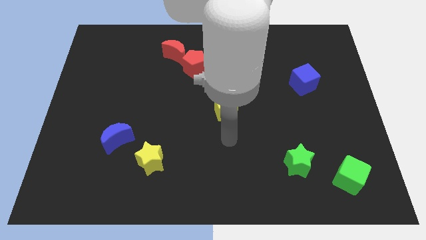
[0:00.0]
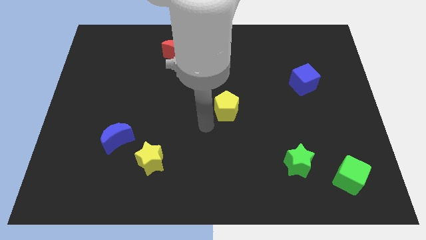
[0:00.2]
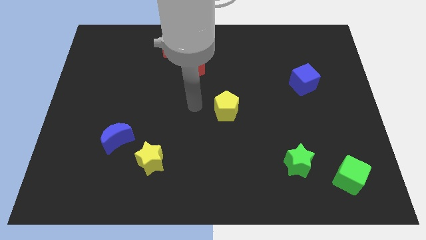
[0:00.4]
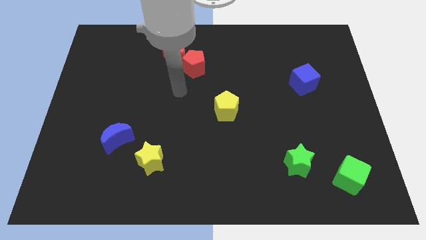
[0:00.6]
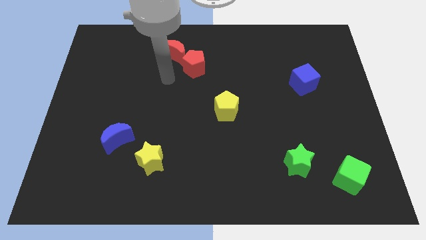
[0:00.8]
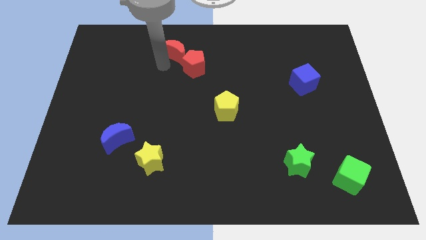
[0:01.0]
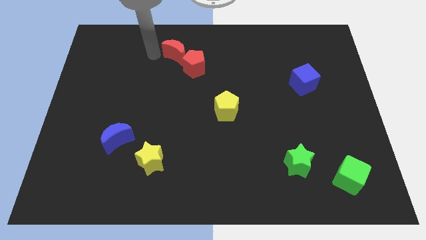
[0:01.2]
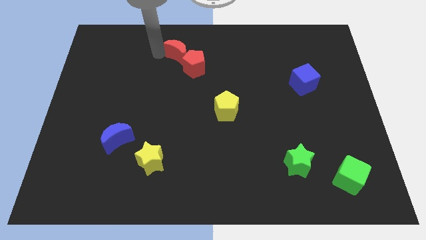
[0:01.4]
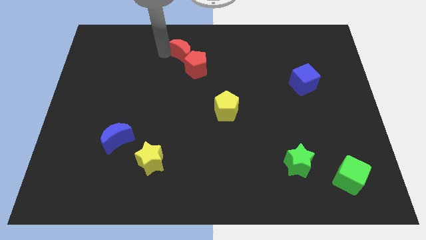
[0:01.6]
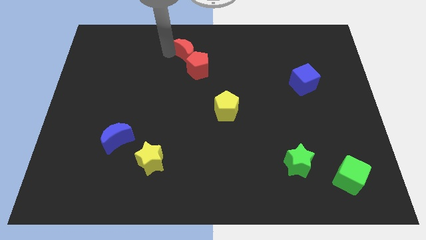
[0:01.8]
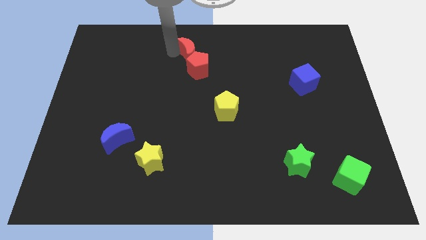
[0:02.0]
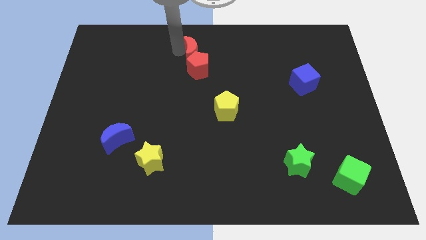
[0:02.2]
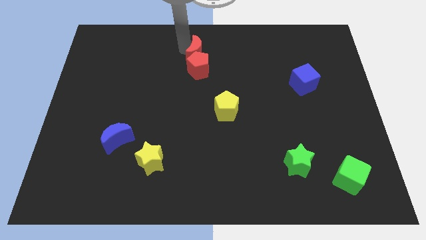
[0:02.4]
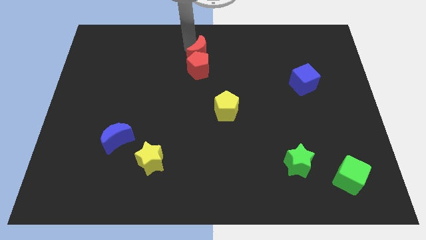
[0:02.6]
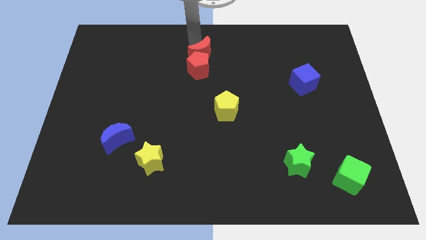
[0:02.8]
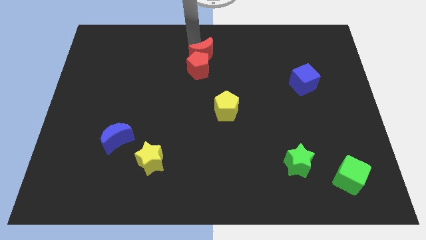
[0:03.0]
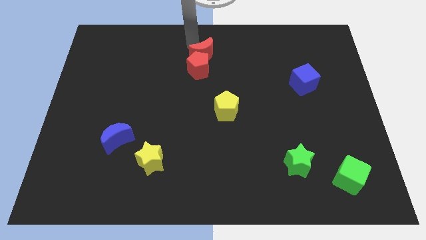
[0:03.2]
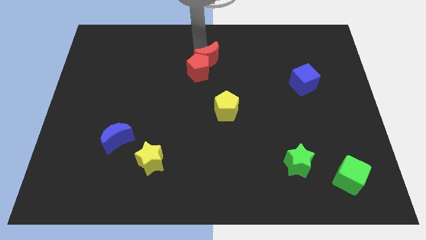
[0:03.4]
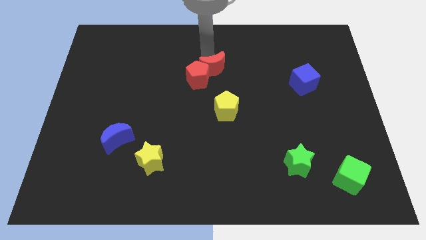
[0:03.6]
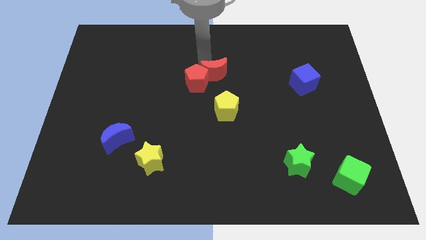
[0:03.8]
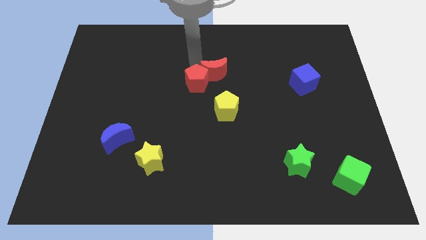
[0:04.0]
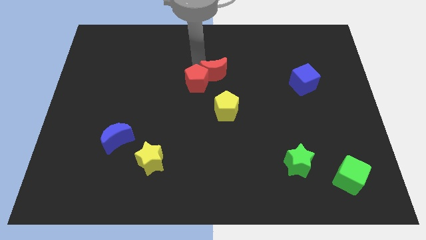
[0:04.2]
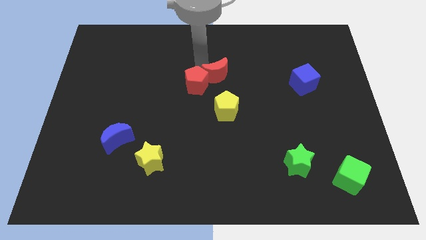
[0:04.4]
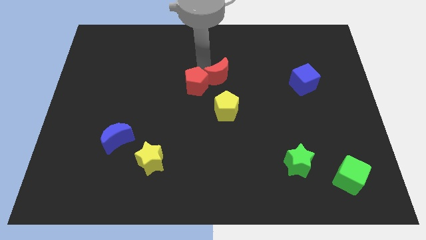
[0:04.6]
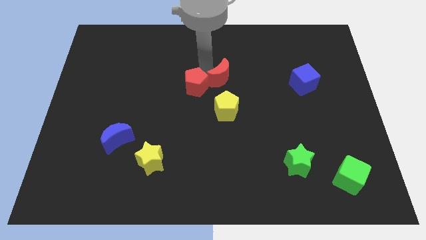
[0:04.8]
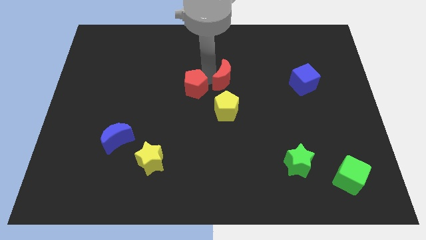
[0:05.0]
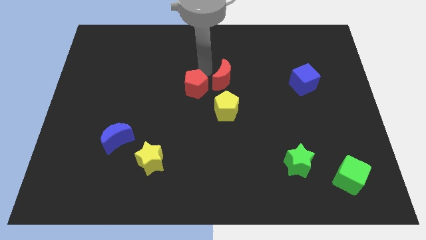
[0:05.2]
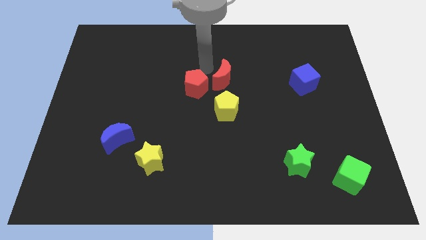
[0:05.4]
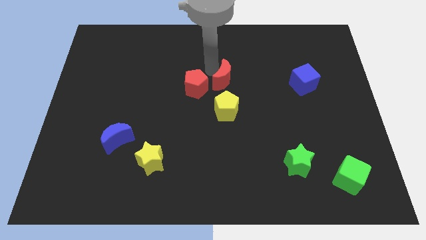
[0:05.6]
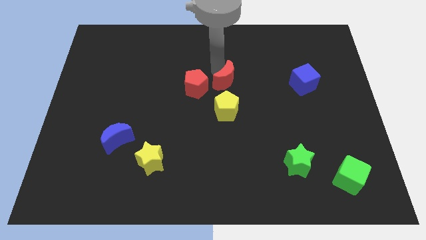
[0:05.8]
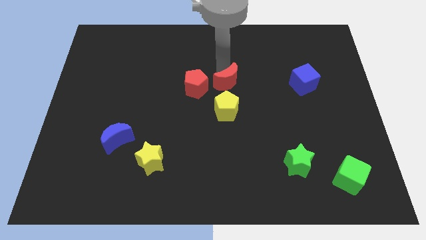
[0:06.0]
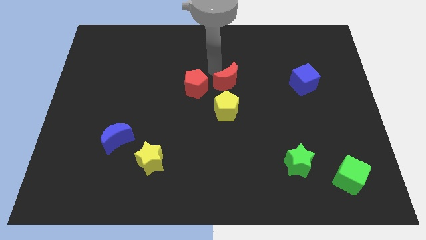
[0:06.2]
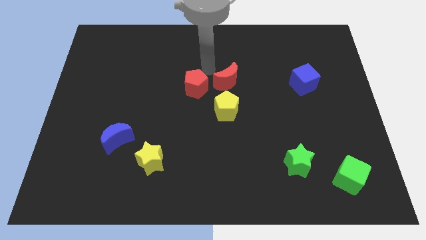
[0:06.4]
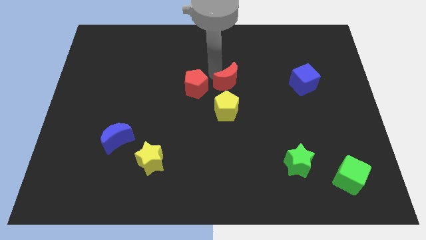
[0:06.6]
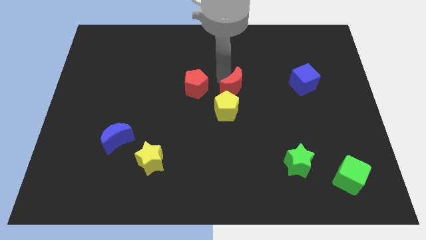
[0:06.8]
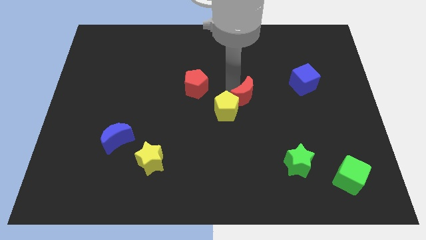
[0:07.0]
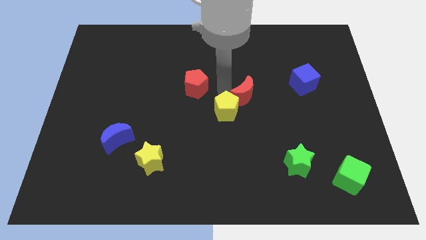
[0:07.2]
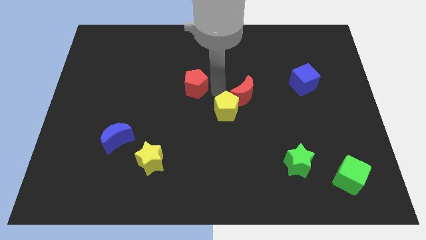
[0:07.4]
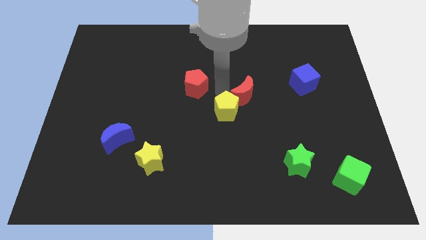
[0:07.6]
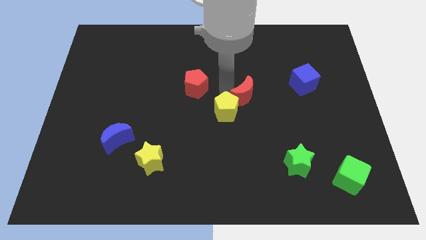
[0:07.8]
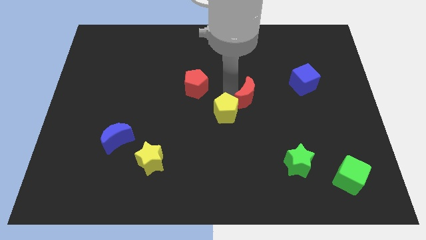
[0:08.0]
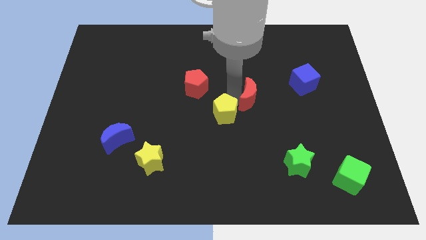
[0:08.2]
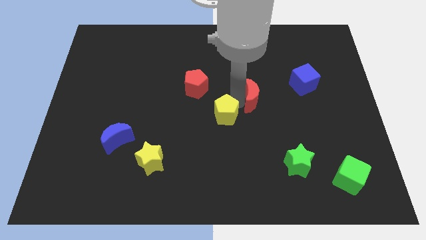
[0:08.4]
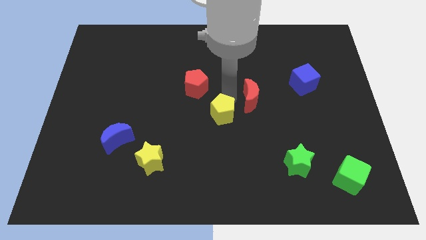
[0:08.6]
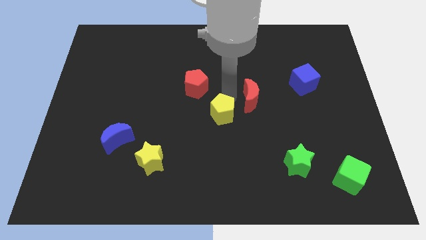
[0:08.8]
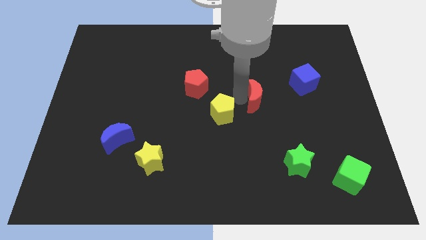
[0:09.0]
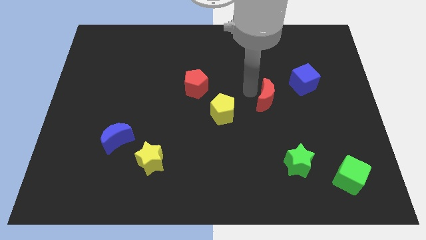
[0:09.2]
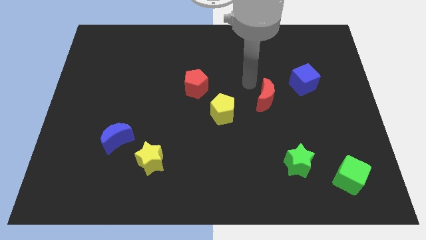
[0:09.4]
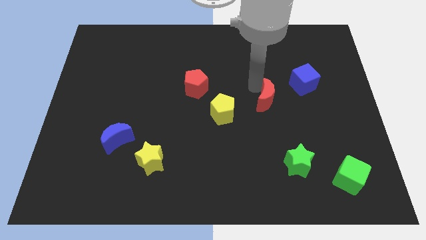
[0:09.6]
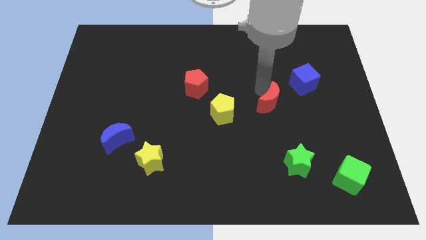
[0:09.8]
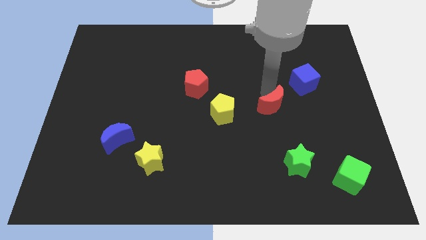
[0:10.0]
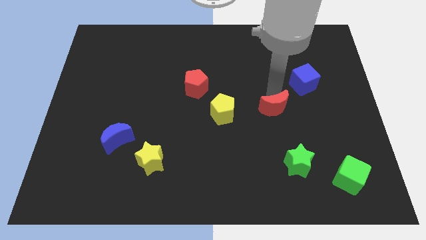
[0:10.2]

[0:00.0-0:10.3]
move the red moon above the green star

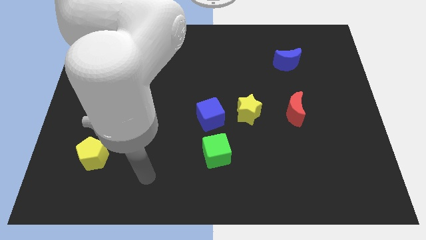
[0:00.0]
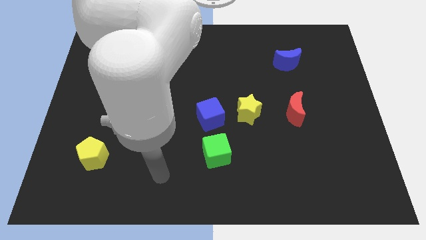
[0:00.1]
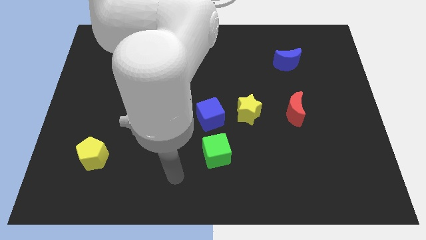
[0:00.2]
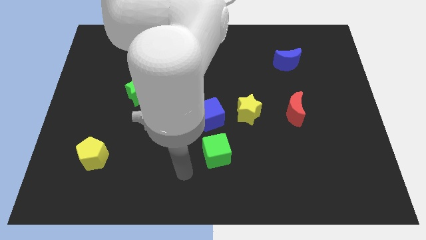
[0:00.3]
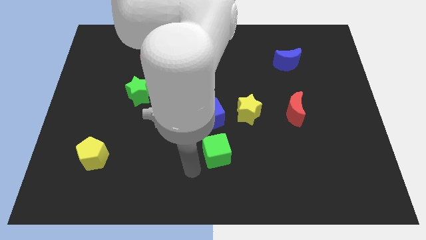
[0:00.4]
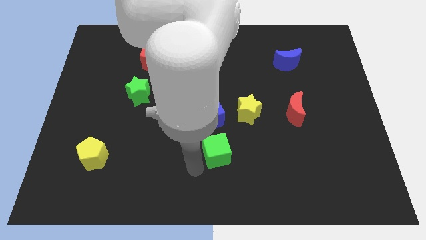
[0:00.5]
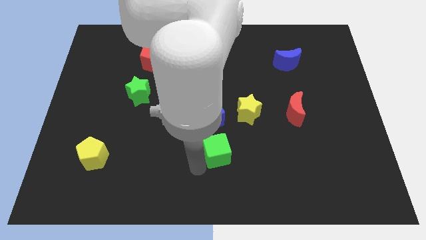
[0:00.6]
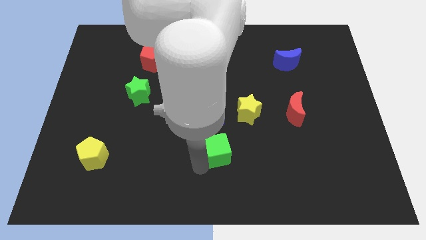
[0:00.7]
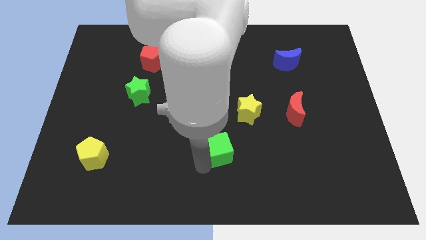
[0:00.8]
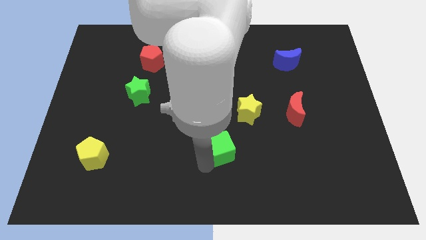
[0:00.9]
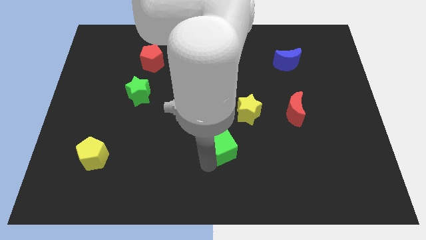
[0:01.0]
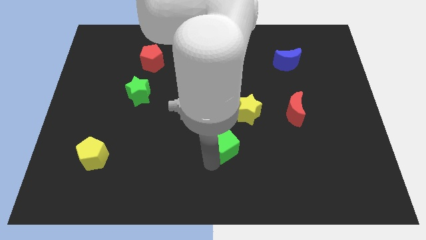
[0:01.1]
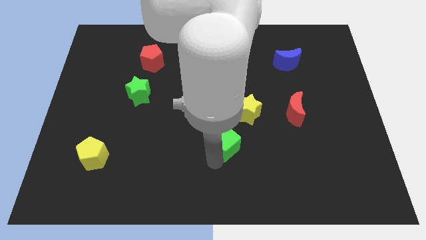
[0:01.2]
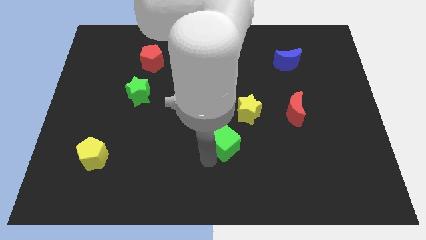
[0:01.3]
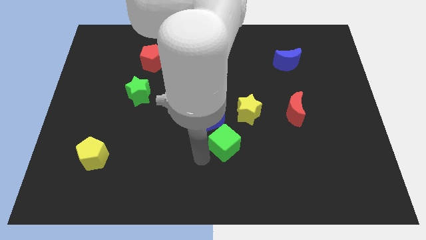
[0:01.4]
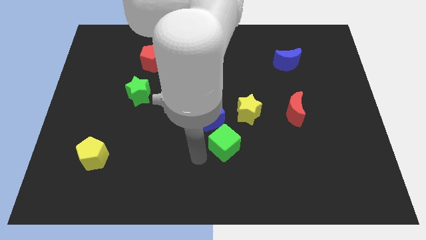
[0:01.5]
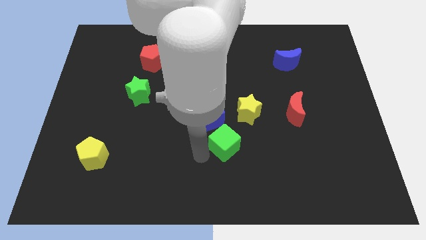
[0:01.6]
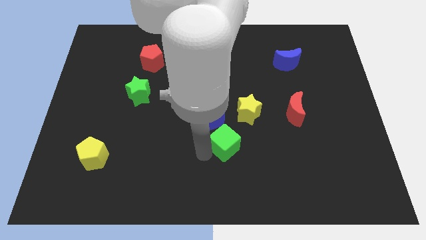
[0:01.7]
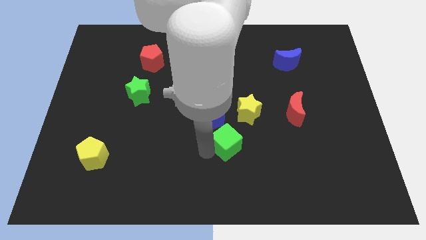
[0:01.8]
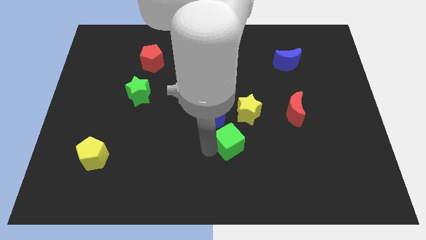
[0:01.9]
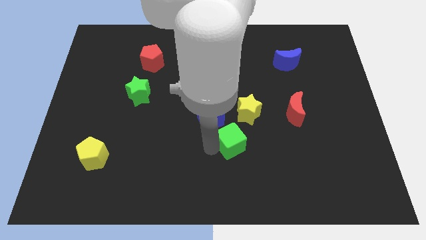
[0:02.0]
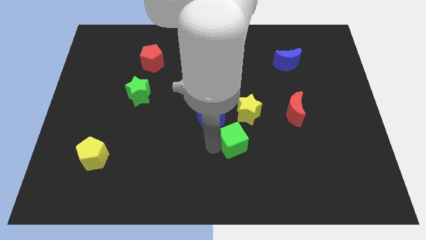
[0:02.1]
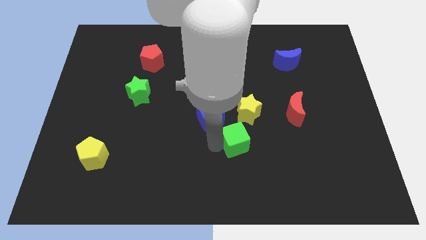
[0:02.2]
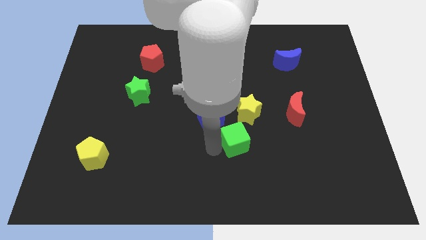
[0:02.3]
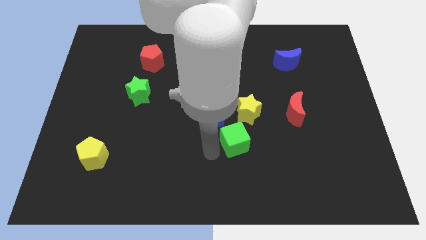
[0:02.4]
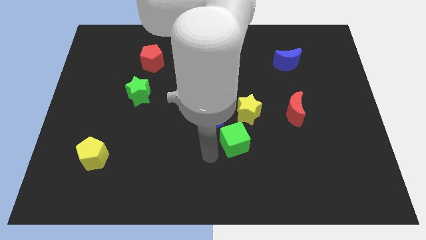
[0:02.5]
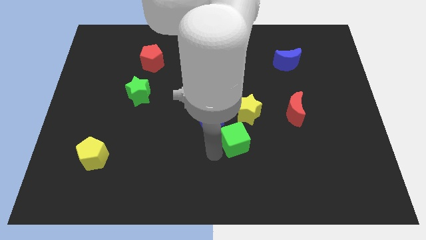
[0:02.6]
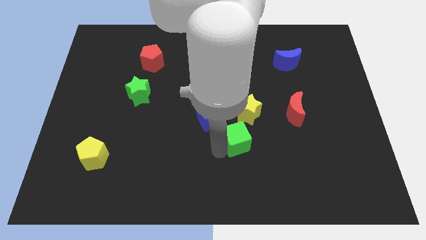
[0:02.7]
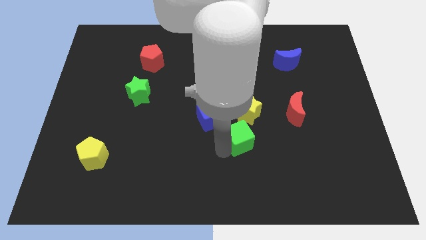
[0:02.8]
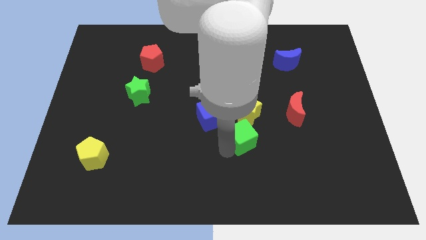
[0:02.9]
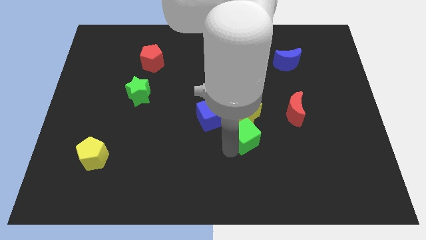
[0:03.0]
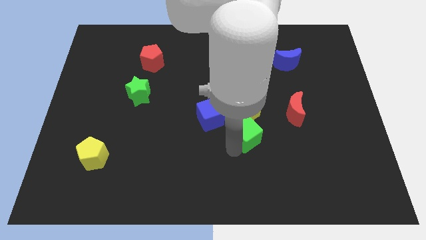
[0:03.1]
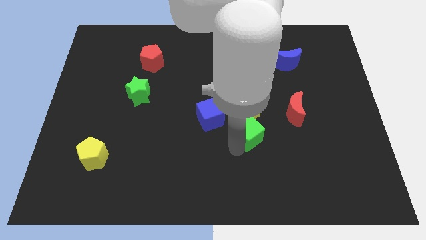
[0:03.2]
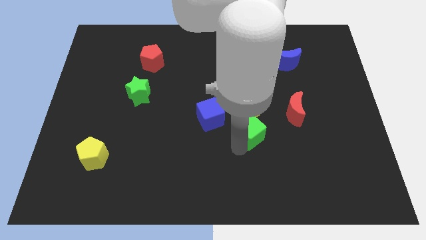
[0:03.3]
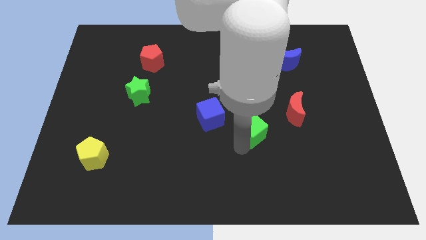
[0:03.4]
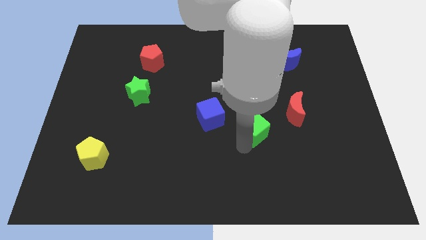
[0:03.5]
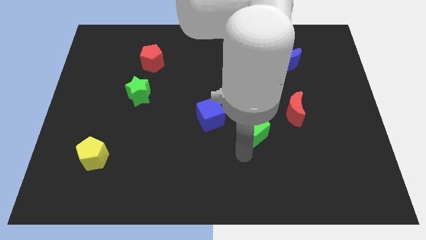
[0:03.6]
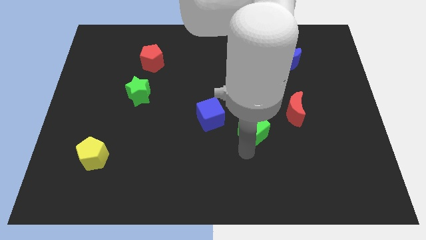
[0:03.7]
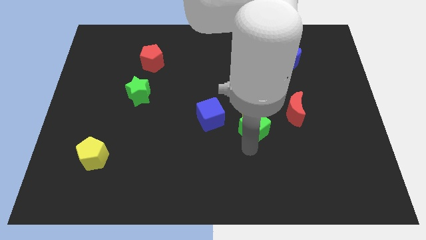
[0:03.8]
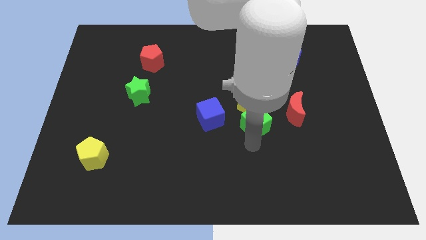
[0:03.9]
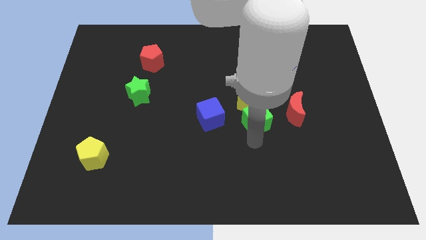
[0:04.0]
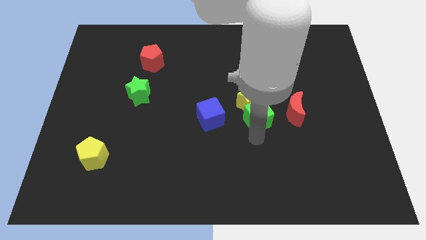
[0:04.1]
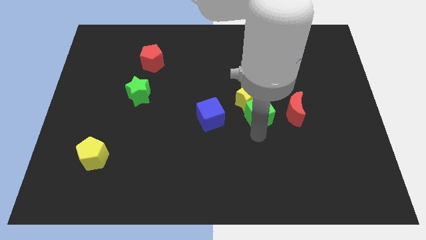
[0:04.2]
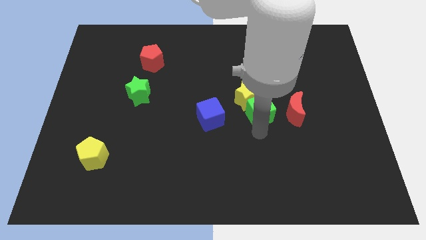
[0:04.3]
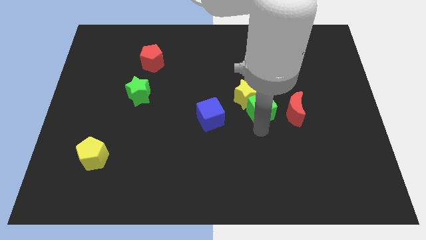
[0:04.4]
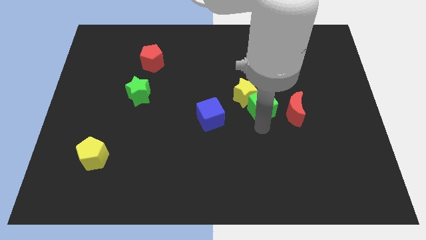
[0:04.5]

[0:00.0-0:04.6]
slide the green cube to the top left of the red moon
